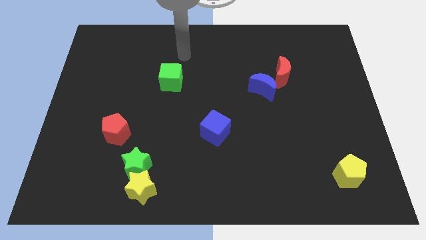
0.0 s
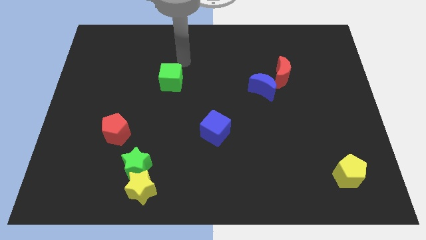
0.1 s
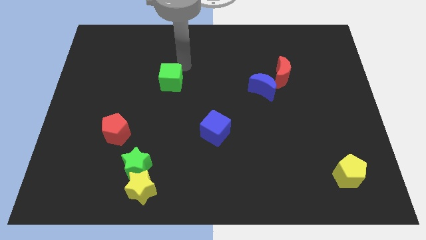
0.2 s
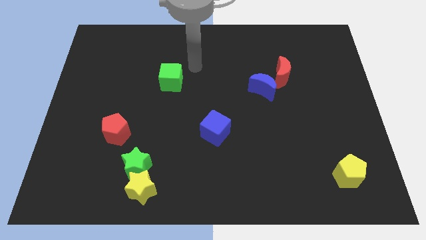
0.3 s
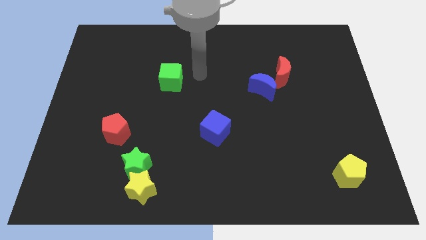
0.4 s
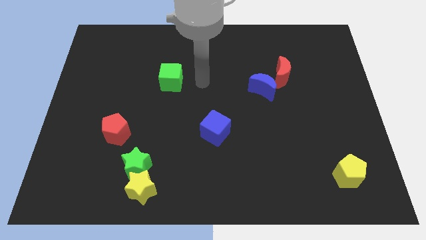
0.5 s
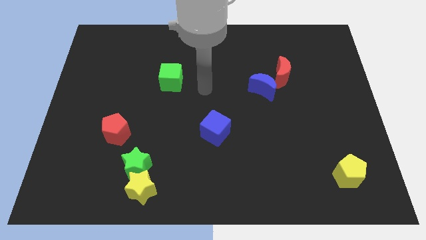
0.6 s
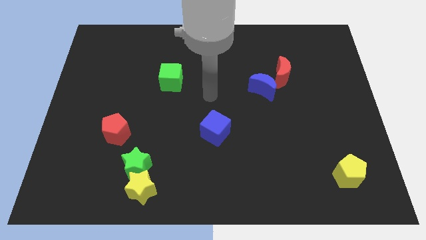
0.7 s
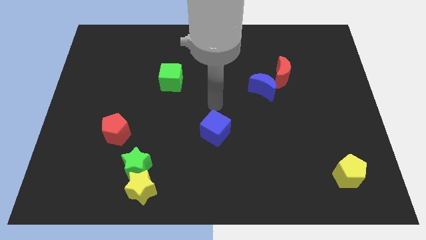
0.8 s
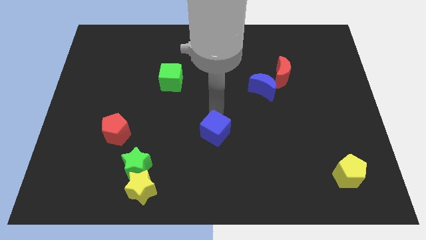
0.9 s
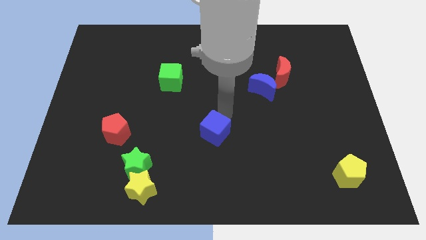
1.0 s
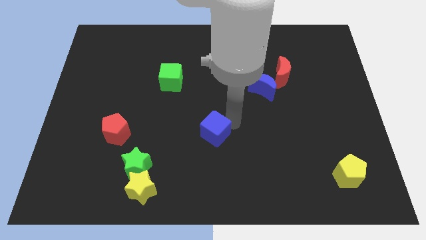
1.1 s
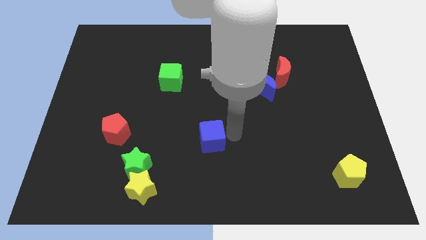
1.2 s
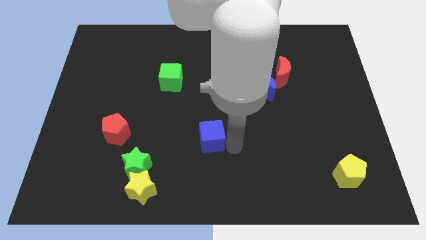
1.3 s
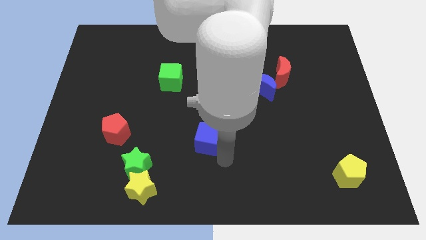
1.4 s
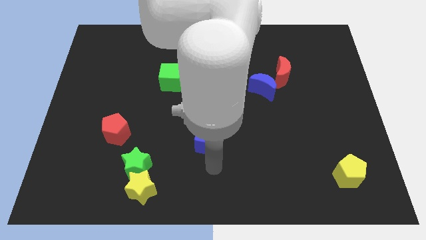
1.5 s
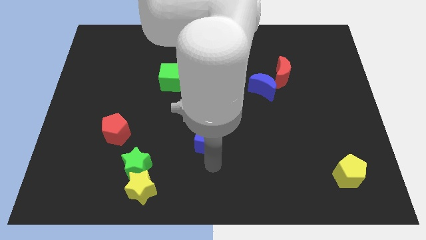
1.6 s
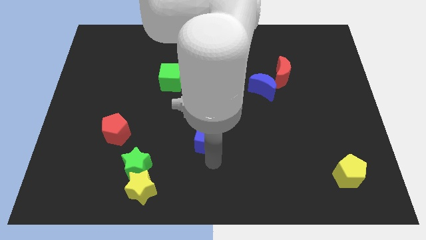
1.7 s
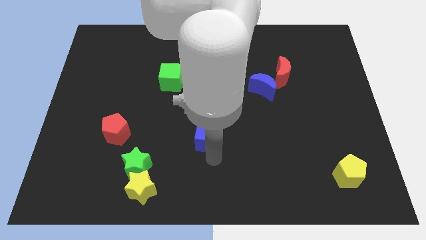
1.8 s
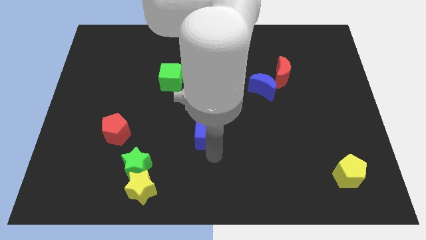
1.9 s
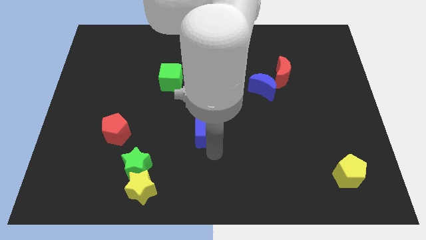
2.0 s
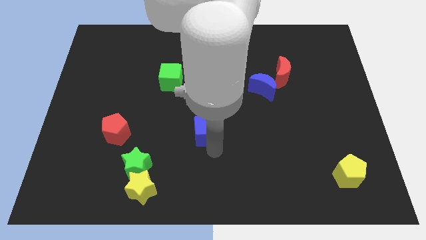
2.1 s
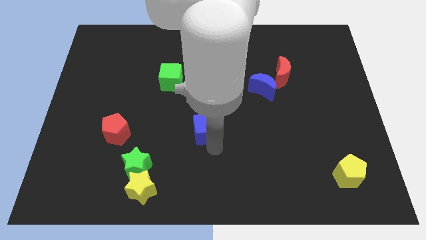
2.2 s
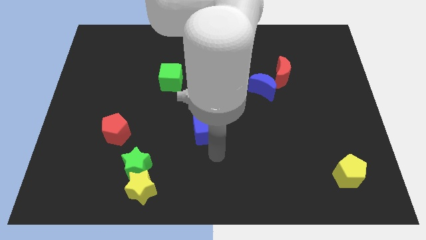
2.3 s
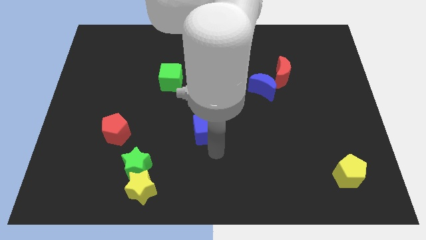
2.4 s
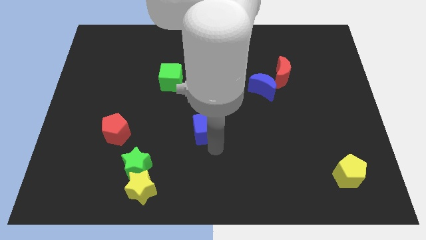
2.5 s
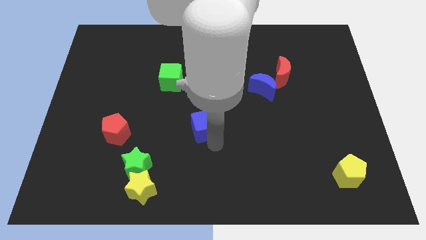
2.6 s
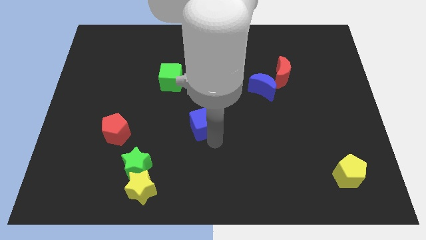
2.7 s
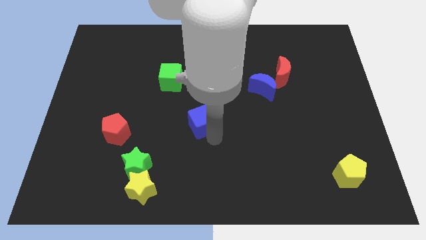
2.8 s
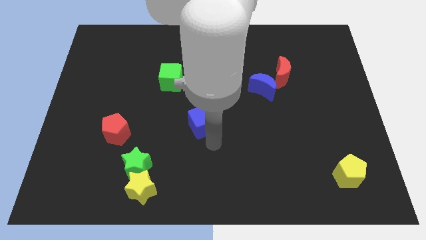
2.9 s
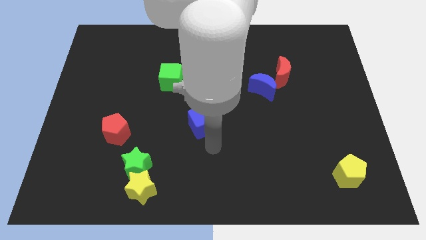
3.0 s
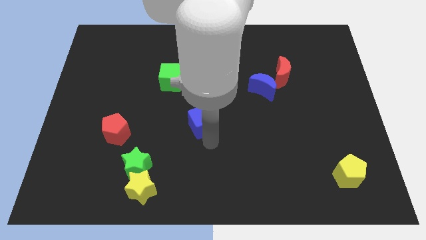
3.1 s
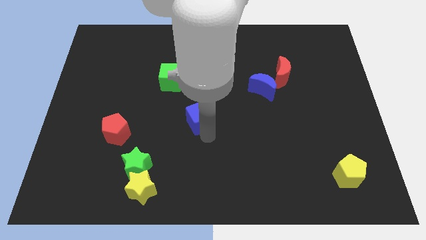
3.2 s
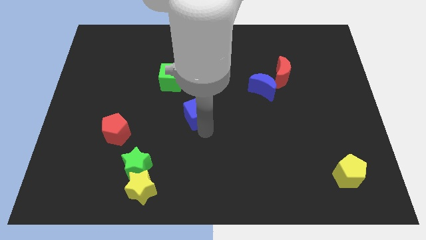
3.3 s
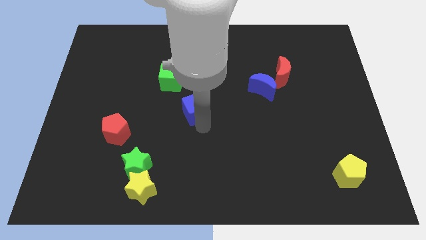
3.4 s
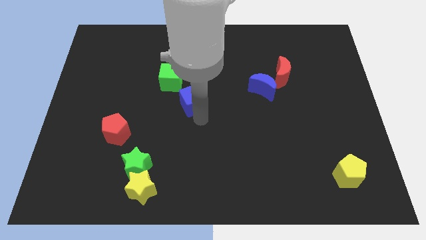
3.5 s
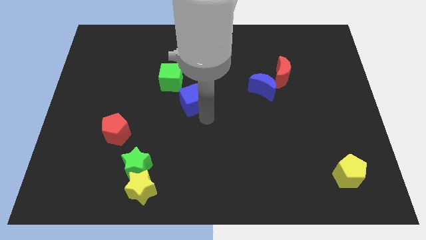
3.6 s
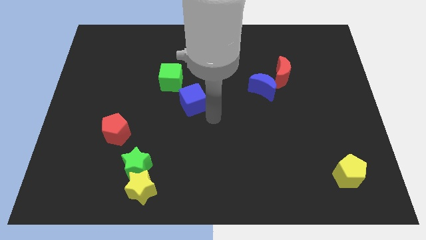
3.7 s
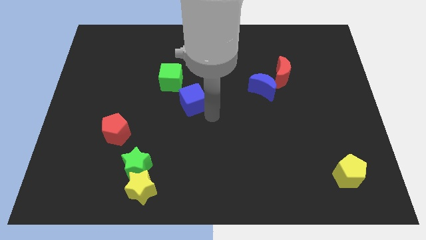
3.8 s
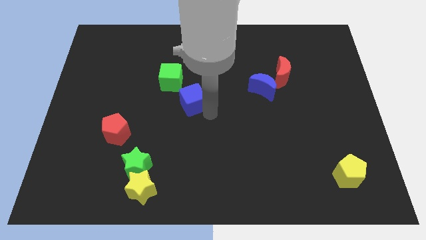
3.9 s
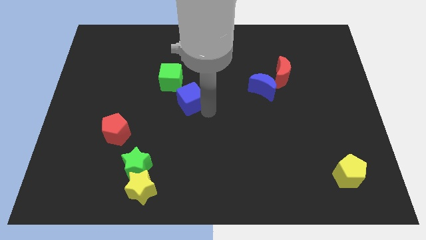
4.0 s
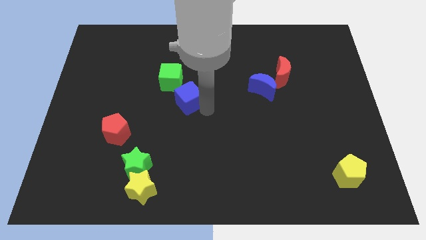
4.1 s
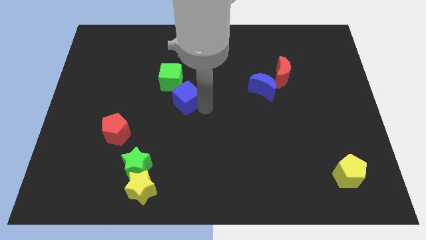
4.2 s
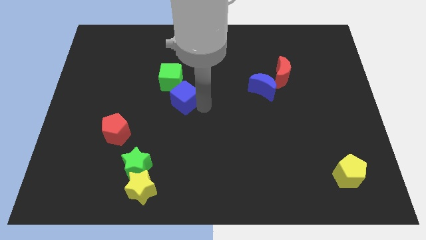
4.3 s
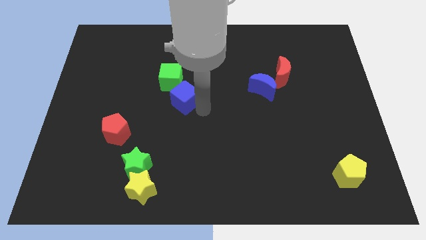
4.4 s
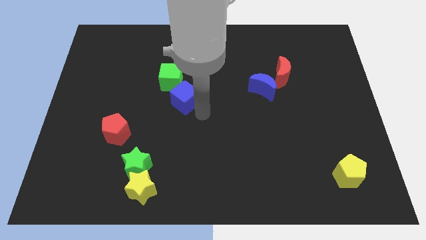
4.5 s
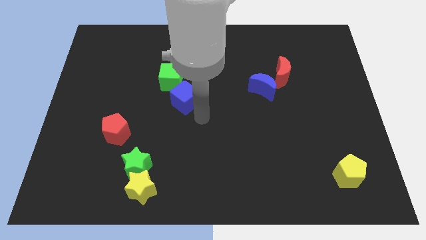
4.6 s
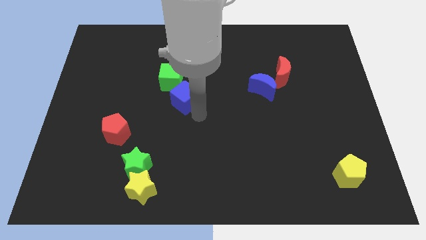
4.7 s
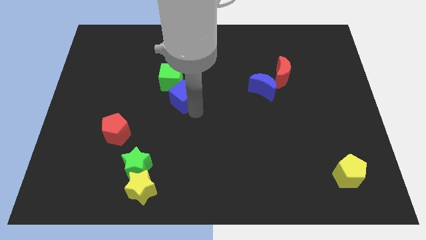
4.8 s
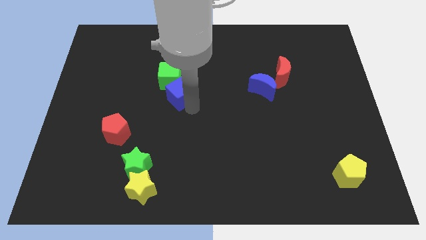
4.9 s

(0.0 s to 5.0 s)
slide the blue cube to the green cube

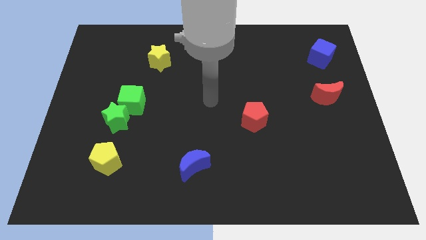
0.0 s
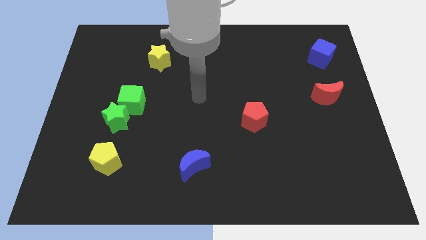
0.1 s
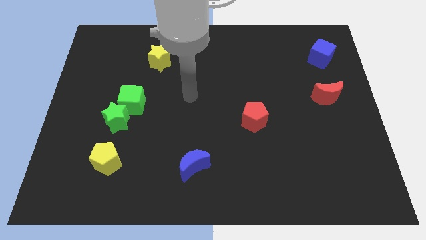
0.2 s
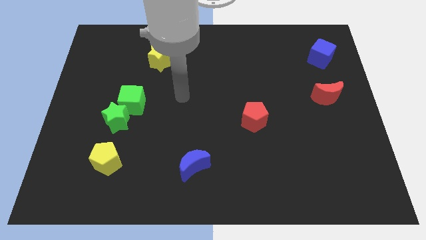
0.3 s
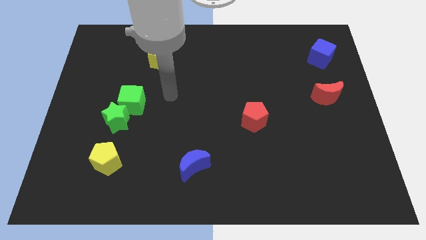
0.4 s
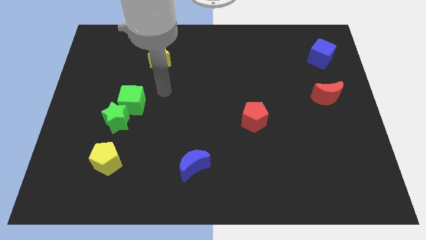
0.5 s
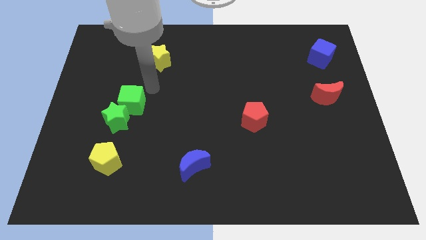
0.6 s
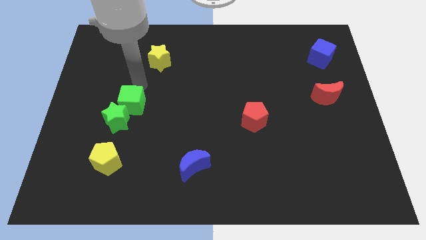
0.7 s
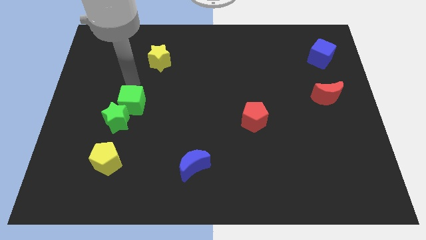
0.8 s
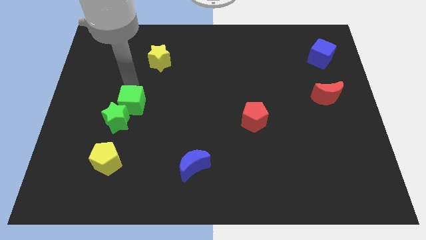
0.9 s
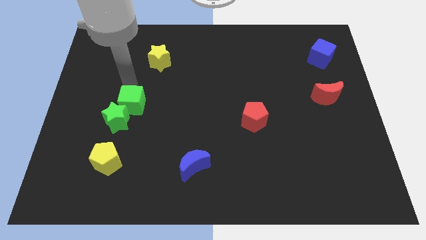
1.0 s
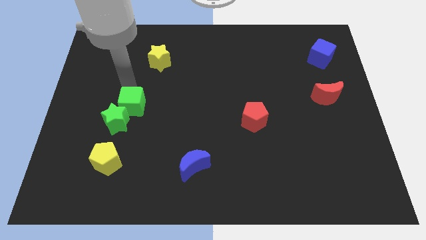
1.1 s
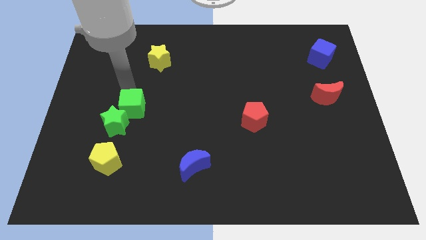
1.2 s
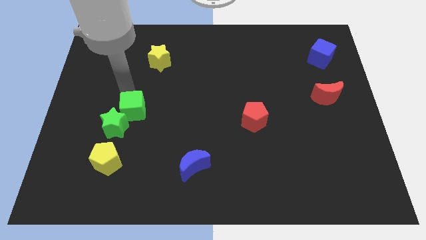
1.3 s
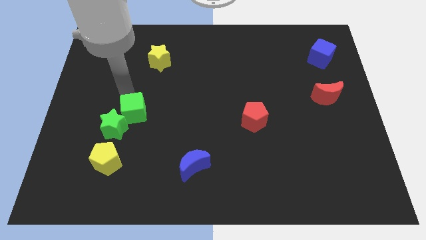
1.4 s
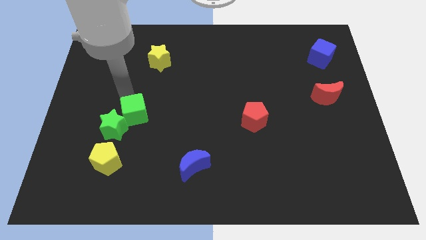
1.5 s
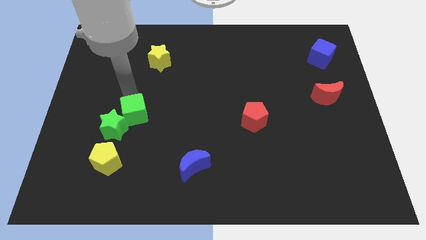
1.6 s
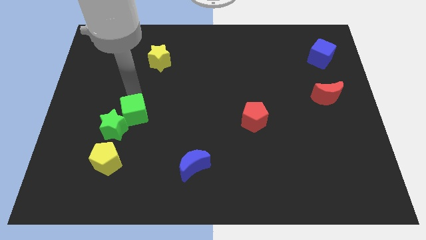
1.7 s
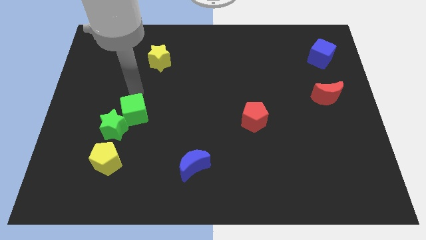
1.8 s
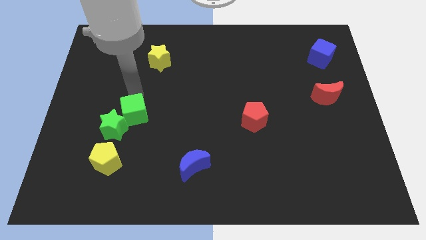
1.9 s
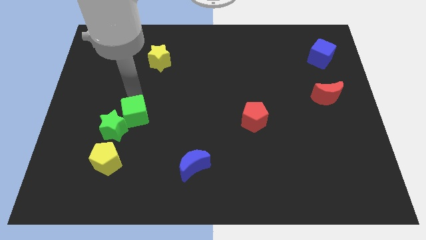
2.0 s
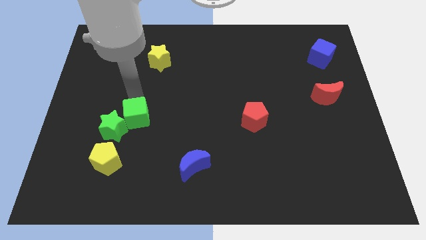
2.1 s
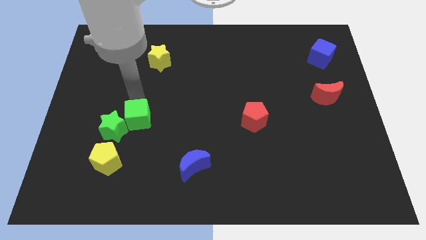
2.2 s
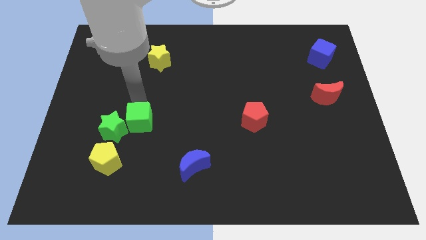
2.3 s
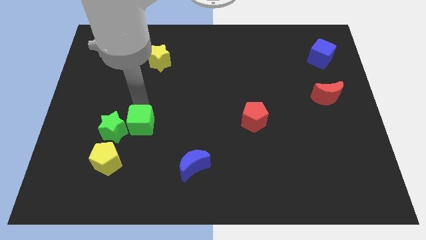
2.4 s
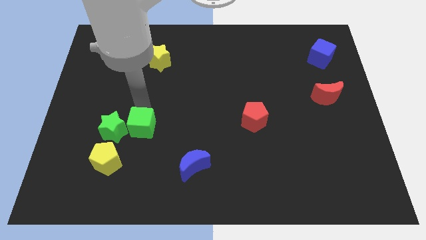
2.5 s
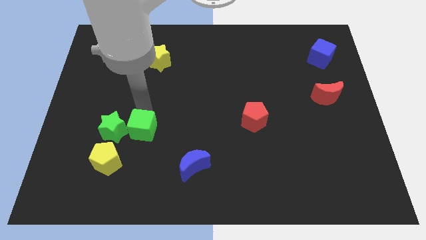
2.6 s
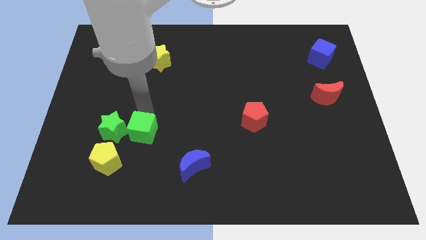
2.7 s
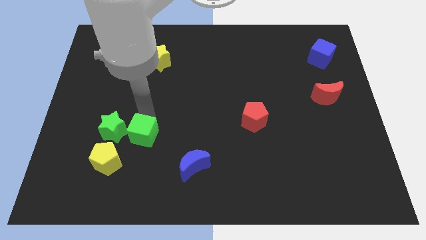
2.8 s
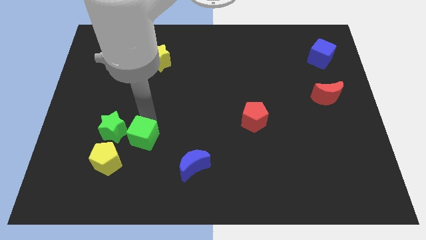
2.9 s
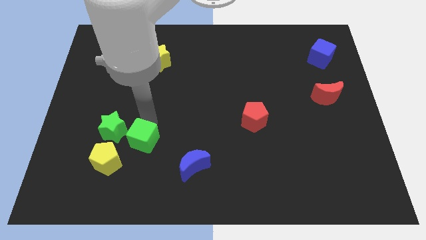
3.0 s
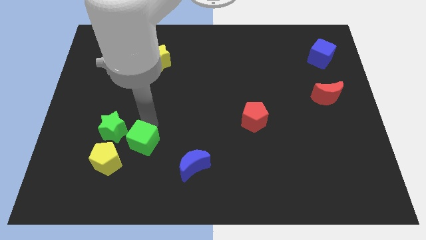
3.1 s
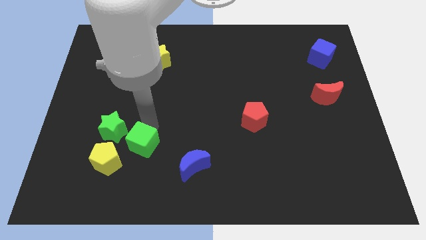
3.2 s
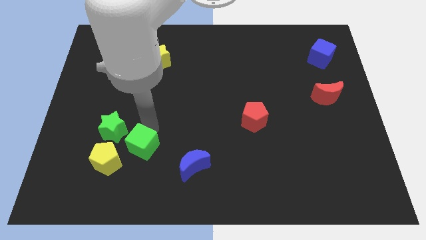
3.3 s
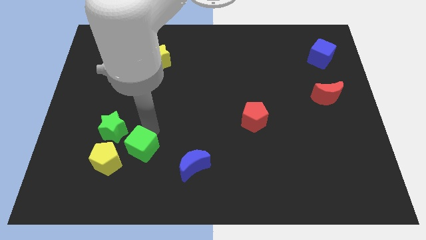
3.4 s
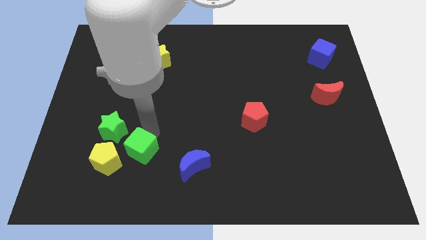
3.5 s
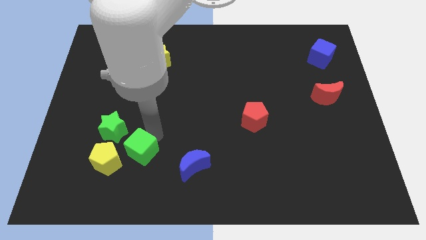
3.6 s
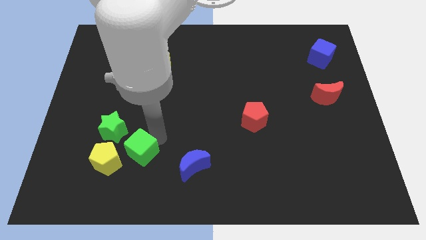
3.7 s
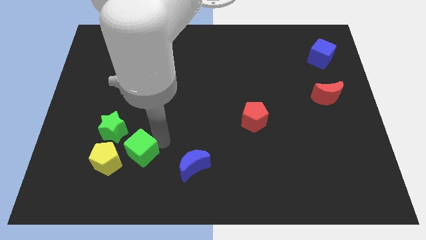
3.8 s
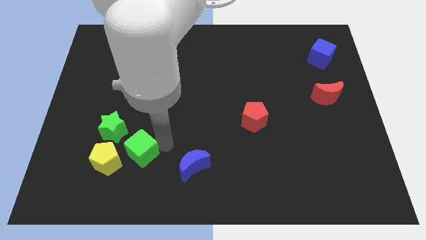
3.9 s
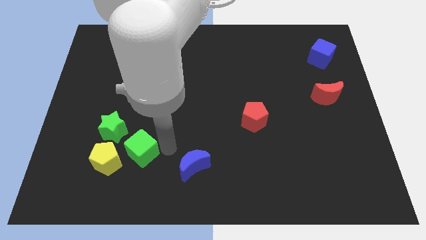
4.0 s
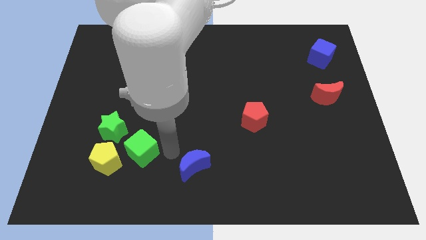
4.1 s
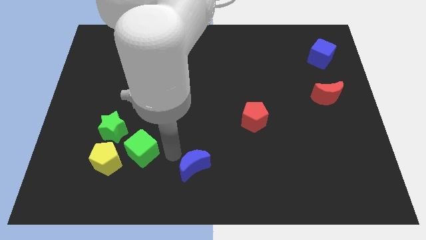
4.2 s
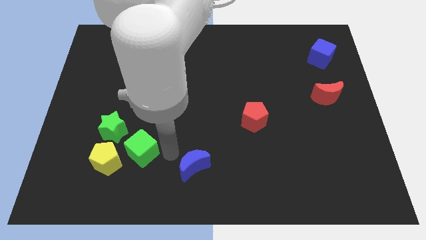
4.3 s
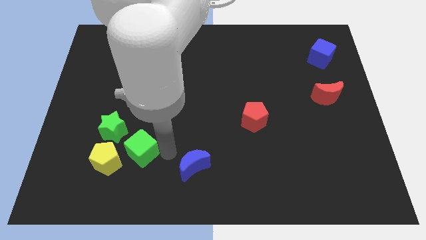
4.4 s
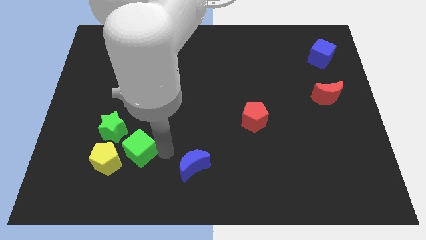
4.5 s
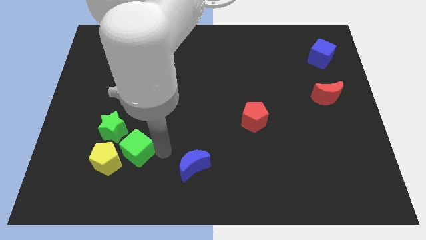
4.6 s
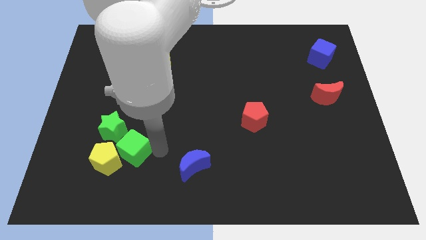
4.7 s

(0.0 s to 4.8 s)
put the green cube close to the yellow pentagon
